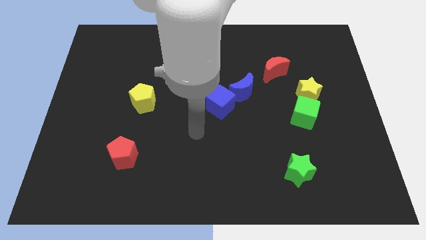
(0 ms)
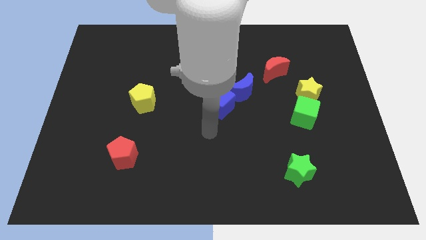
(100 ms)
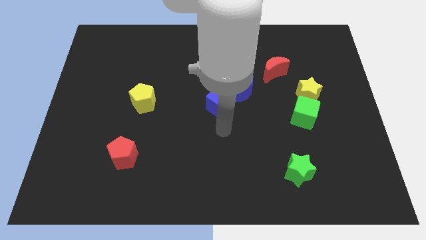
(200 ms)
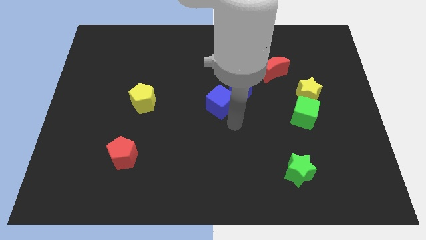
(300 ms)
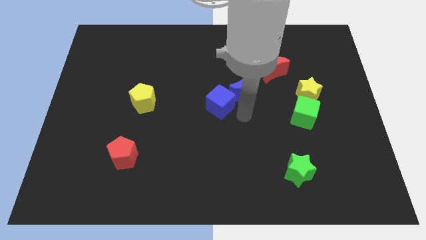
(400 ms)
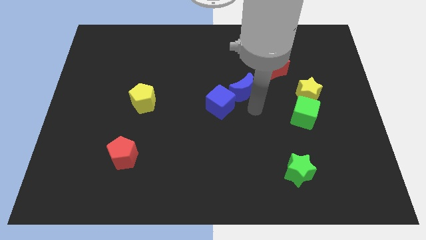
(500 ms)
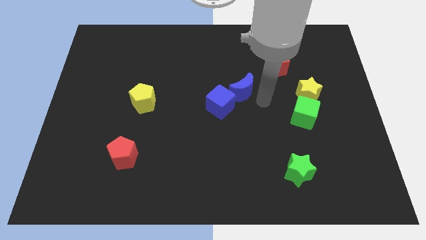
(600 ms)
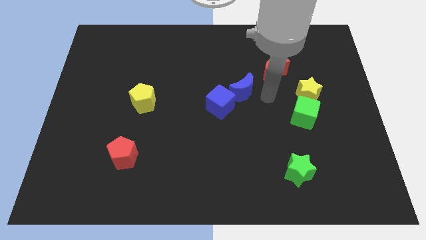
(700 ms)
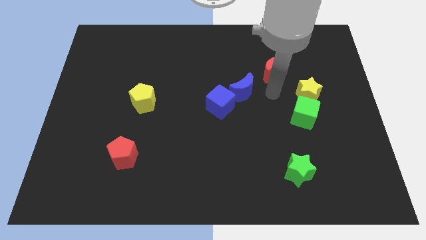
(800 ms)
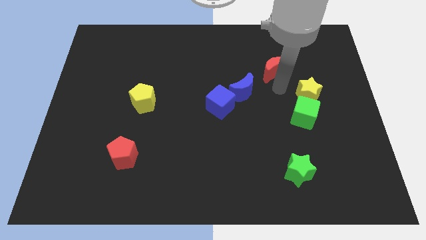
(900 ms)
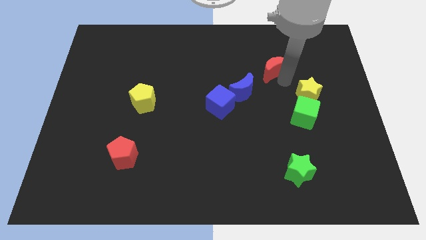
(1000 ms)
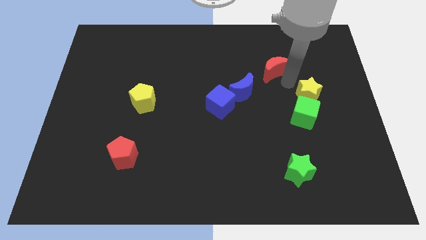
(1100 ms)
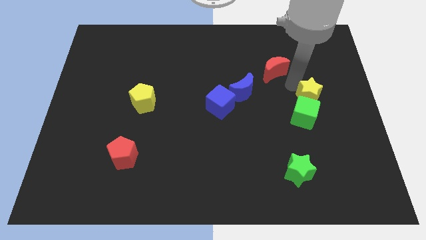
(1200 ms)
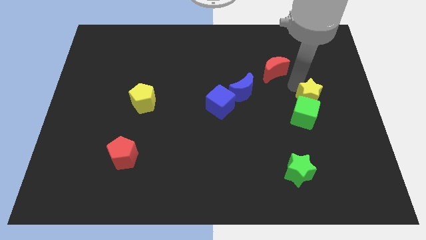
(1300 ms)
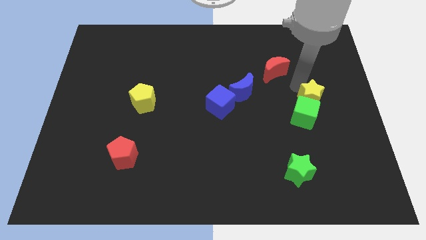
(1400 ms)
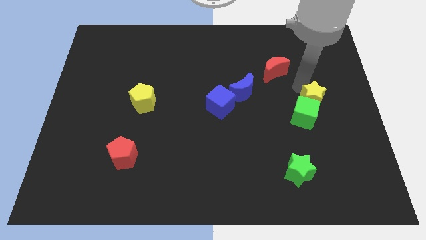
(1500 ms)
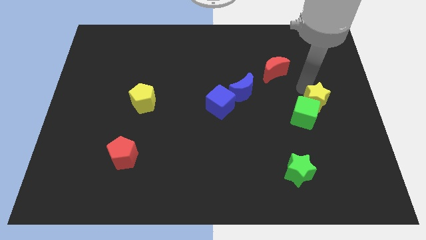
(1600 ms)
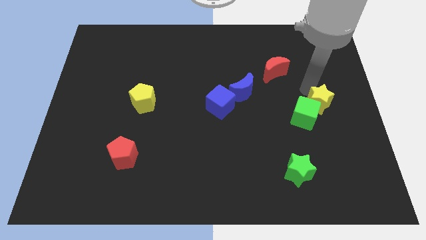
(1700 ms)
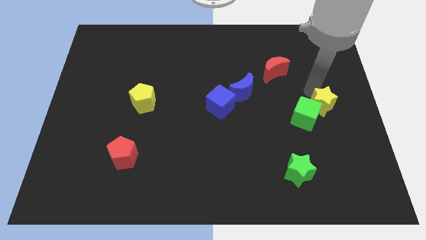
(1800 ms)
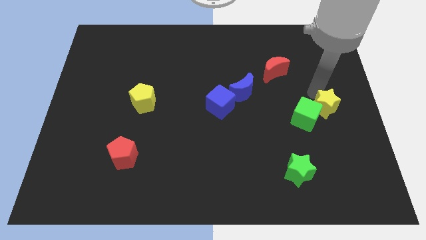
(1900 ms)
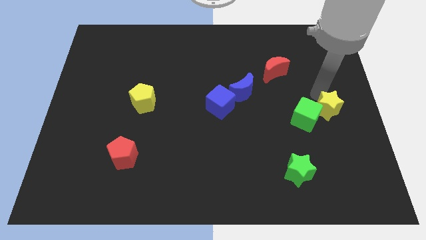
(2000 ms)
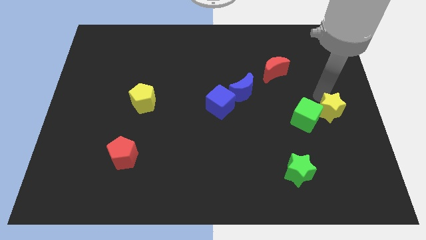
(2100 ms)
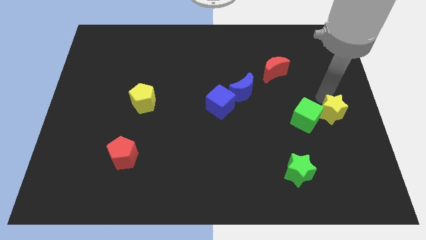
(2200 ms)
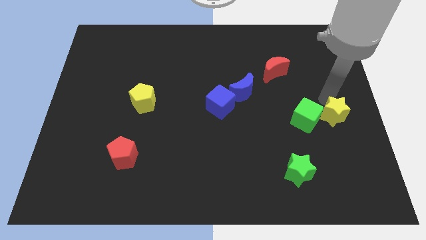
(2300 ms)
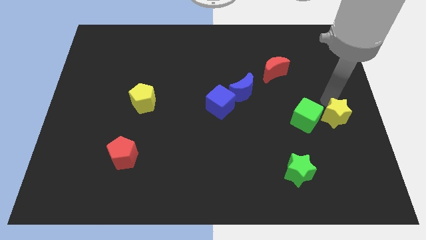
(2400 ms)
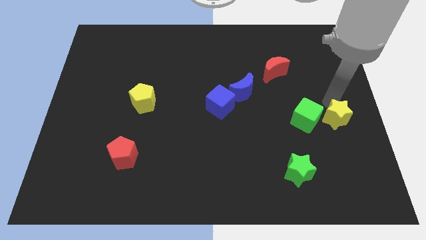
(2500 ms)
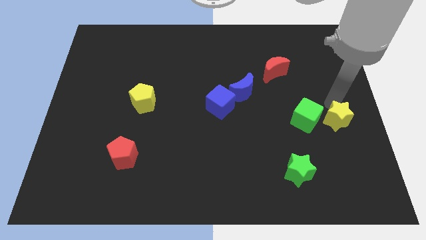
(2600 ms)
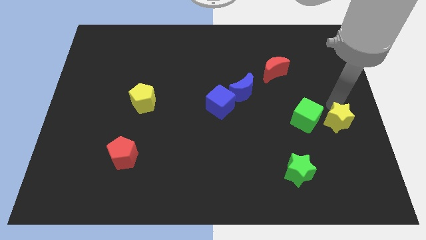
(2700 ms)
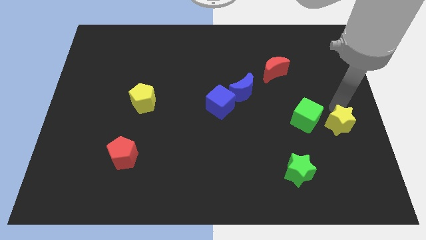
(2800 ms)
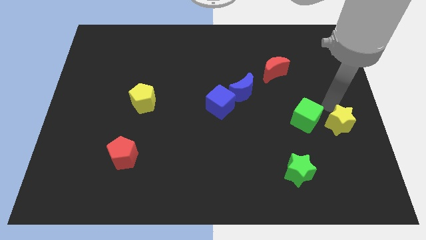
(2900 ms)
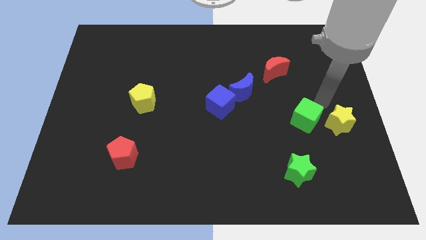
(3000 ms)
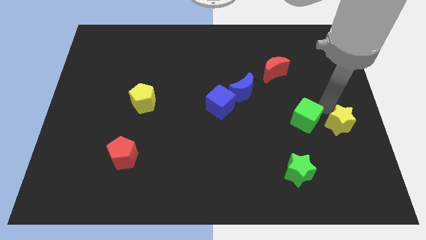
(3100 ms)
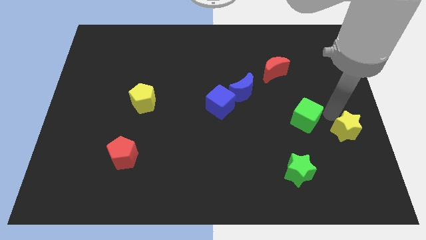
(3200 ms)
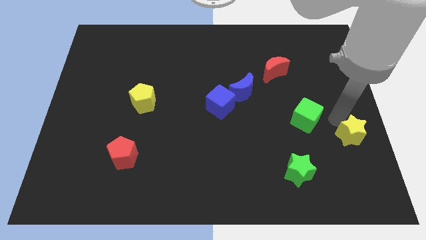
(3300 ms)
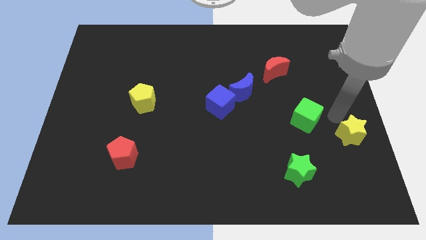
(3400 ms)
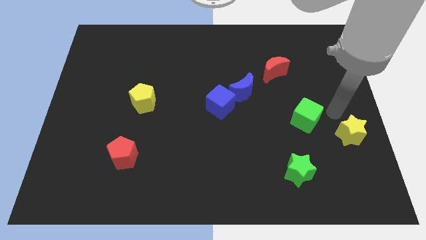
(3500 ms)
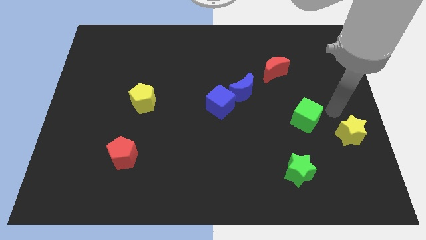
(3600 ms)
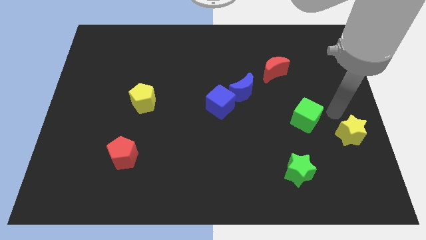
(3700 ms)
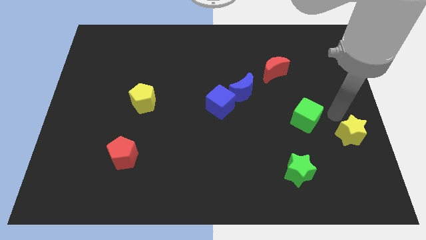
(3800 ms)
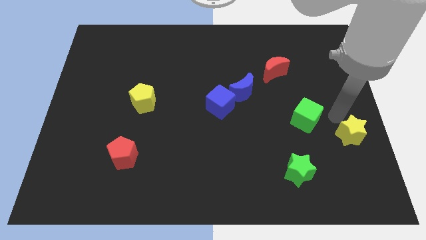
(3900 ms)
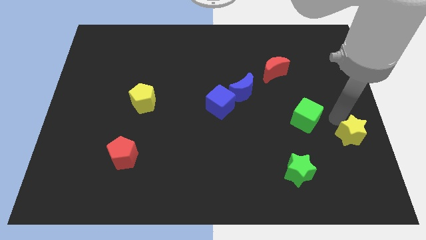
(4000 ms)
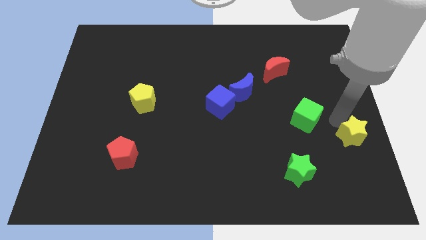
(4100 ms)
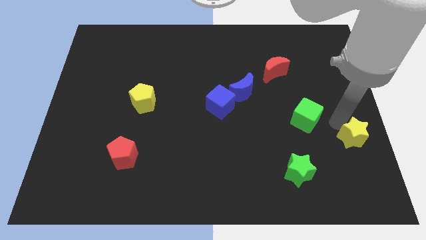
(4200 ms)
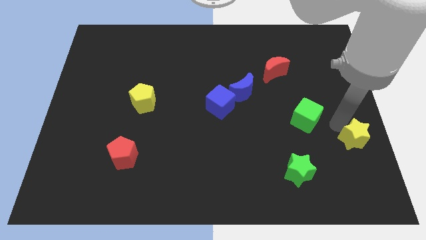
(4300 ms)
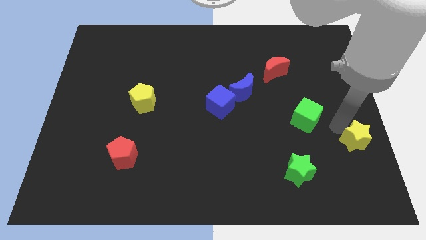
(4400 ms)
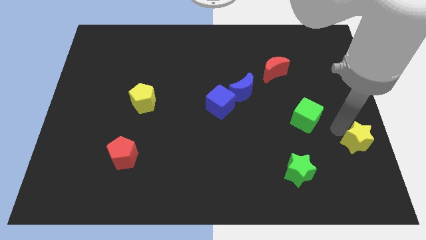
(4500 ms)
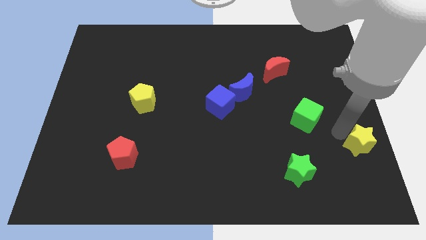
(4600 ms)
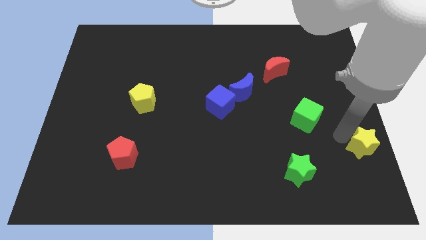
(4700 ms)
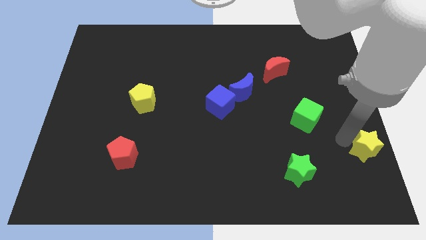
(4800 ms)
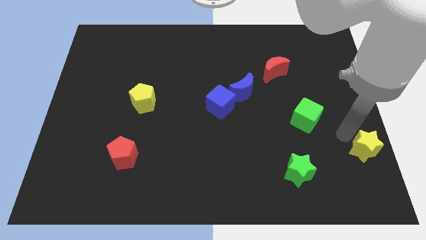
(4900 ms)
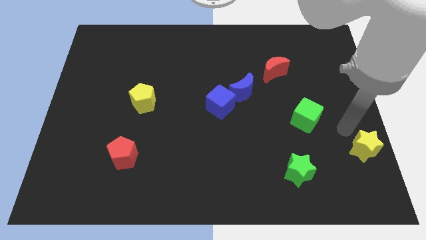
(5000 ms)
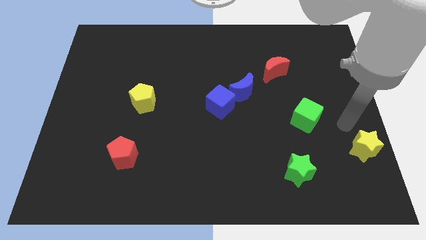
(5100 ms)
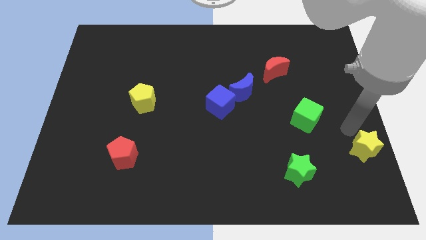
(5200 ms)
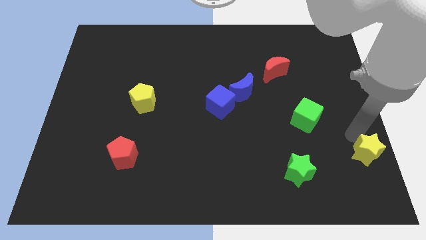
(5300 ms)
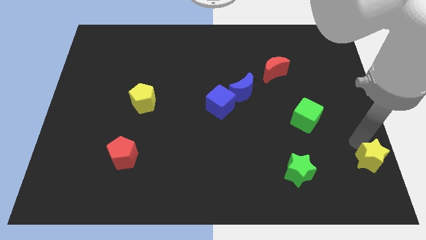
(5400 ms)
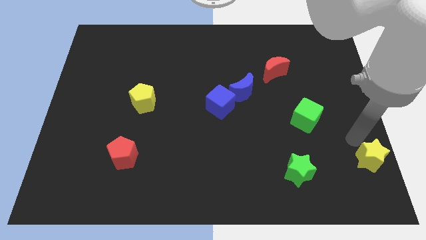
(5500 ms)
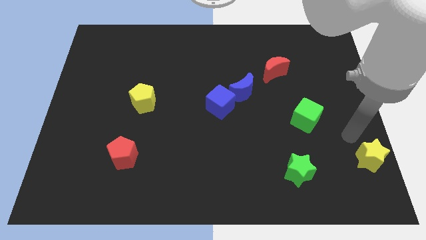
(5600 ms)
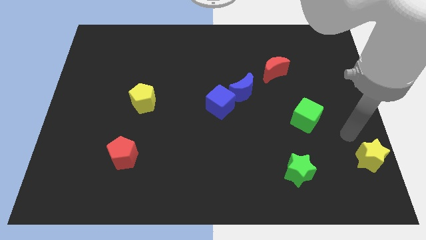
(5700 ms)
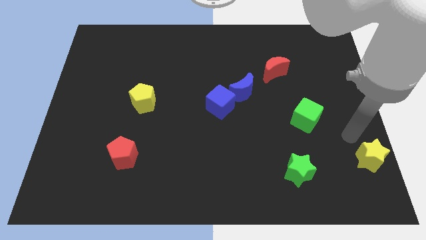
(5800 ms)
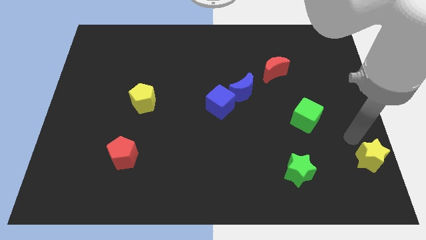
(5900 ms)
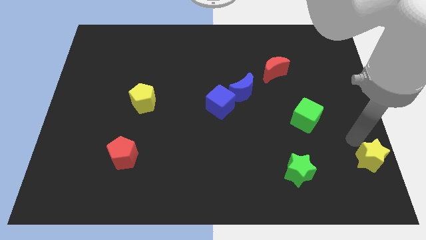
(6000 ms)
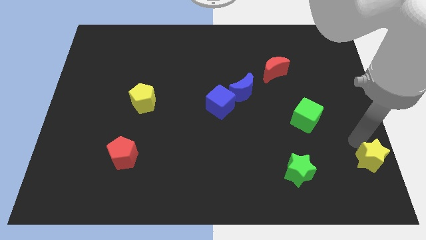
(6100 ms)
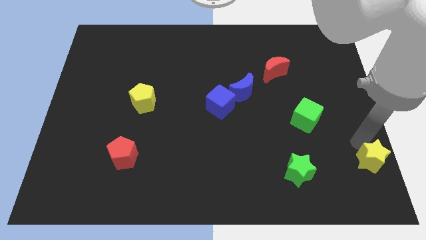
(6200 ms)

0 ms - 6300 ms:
move the yellow star to the bottom right of the board
